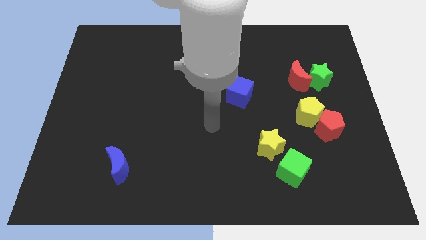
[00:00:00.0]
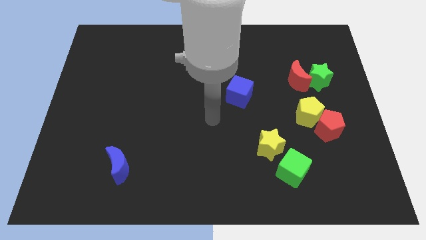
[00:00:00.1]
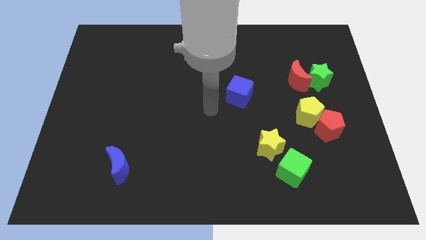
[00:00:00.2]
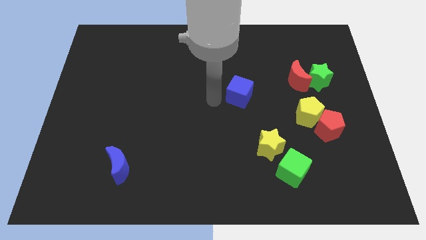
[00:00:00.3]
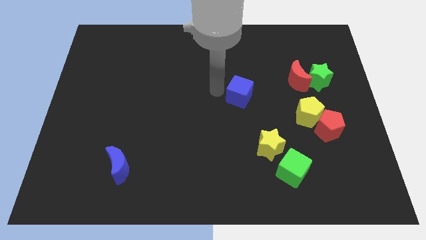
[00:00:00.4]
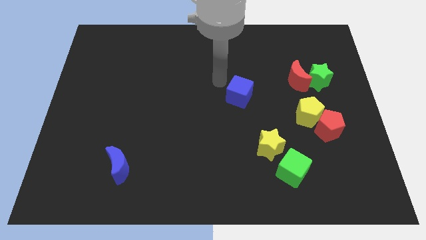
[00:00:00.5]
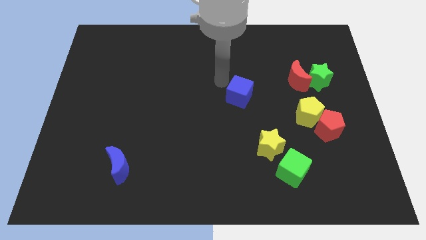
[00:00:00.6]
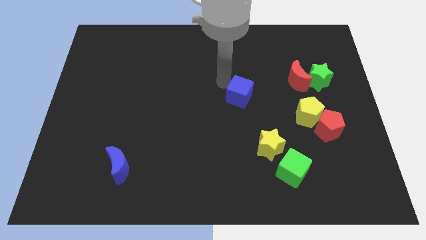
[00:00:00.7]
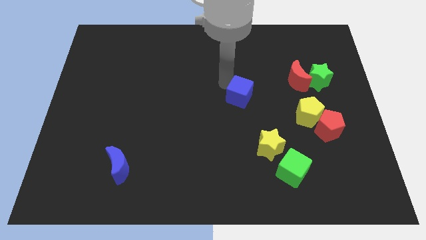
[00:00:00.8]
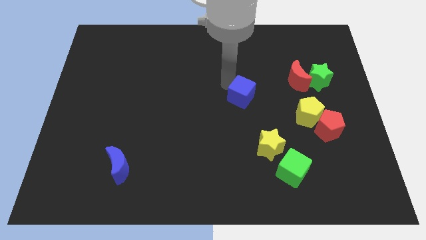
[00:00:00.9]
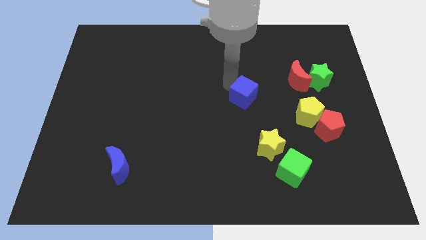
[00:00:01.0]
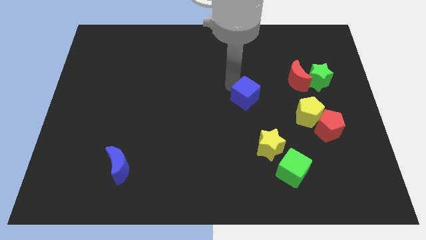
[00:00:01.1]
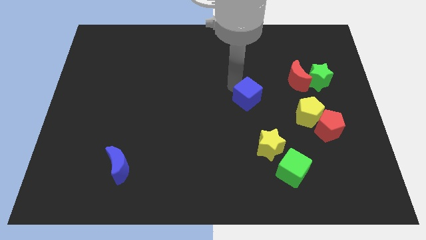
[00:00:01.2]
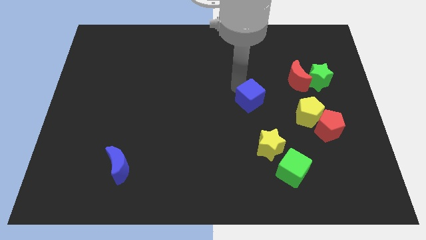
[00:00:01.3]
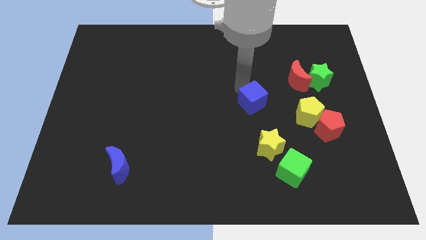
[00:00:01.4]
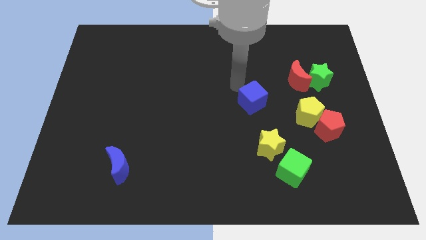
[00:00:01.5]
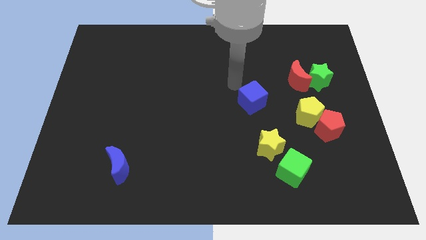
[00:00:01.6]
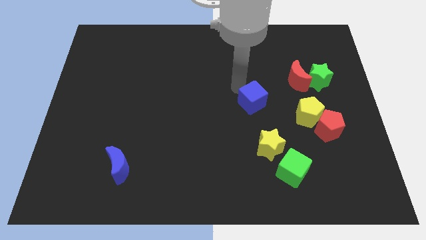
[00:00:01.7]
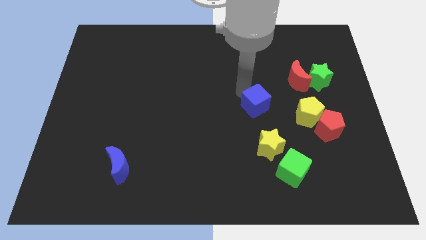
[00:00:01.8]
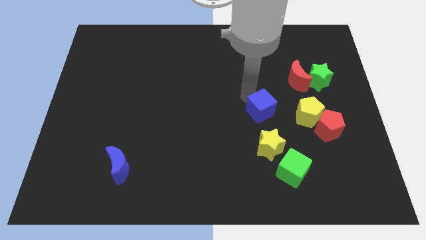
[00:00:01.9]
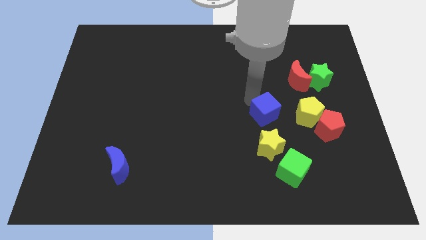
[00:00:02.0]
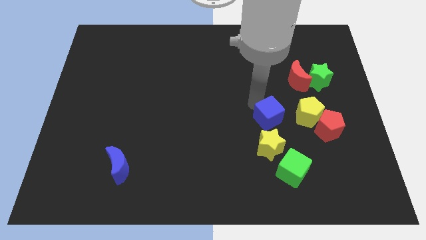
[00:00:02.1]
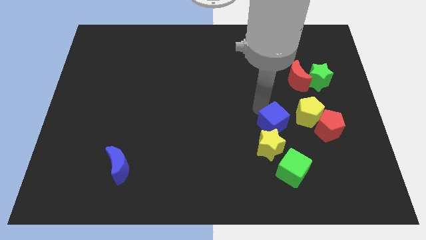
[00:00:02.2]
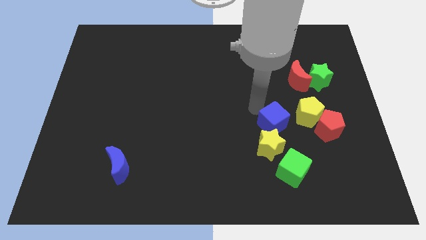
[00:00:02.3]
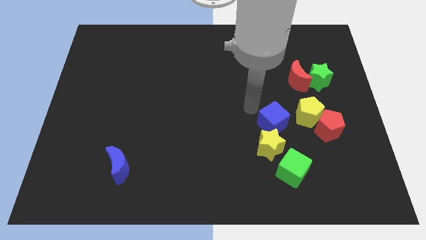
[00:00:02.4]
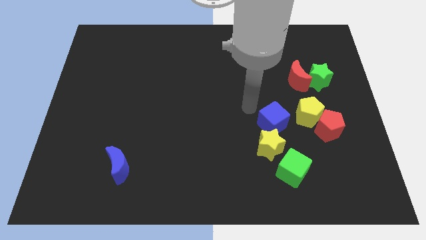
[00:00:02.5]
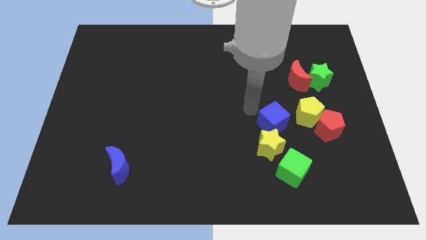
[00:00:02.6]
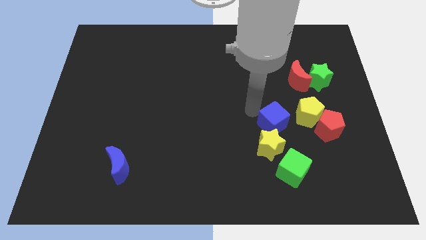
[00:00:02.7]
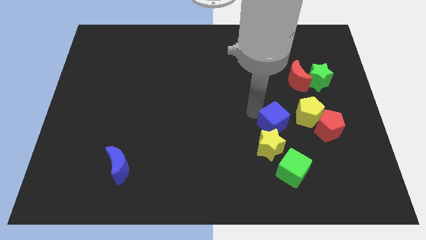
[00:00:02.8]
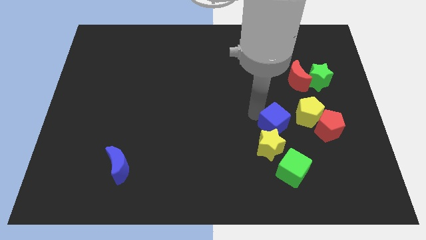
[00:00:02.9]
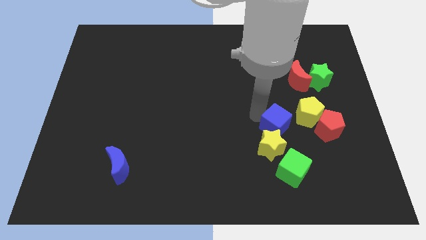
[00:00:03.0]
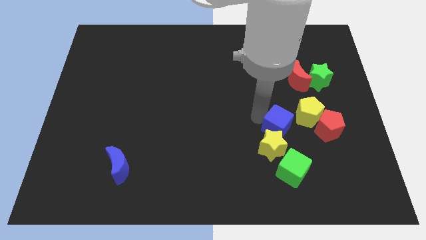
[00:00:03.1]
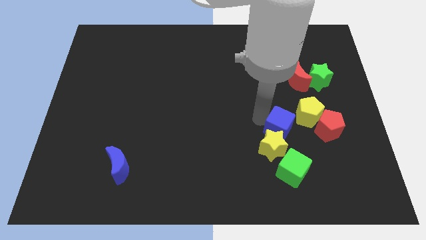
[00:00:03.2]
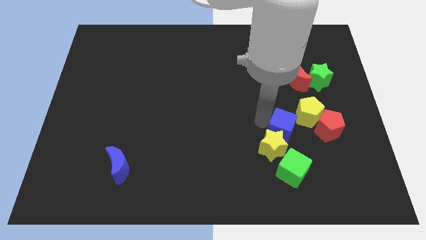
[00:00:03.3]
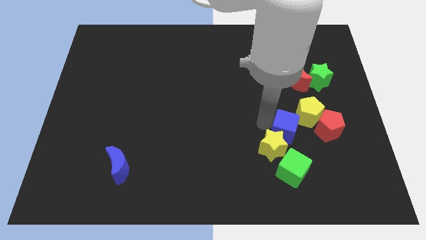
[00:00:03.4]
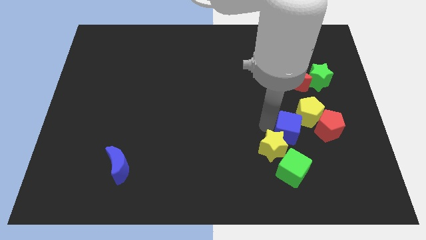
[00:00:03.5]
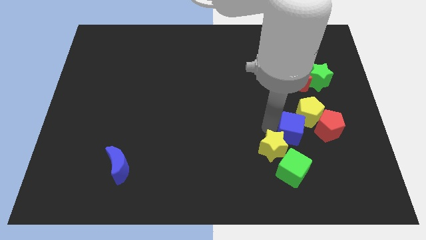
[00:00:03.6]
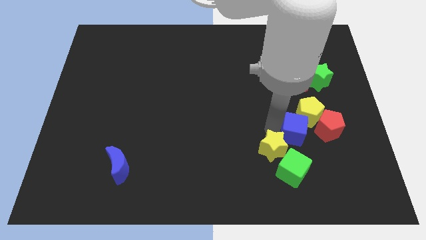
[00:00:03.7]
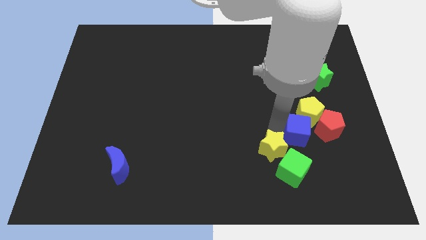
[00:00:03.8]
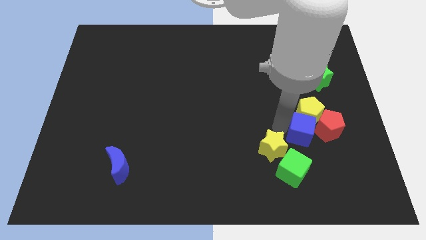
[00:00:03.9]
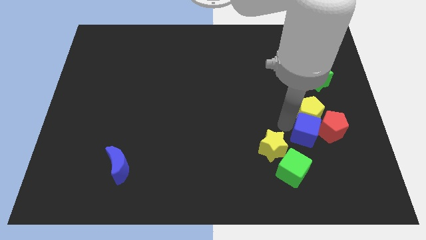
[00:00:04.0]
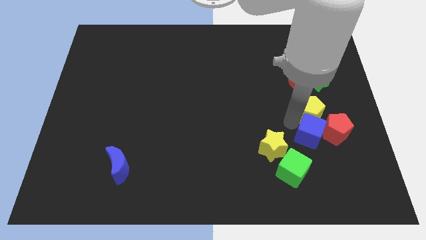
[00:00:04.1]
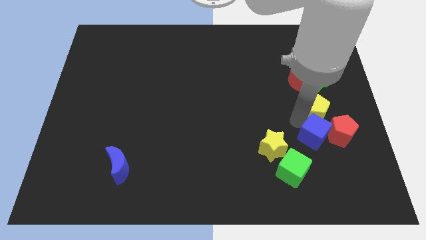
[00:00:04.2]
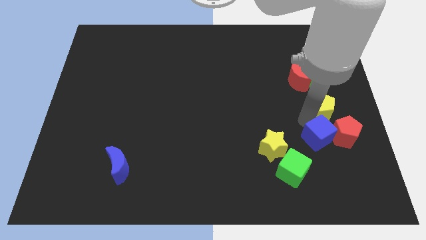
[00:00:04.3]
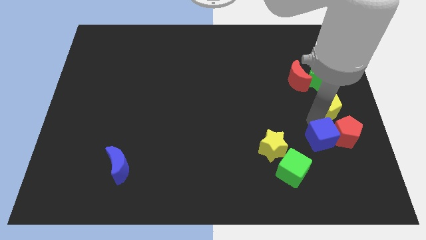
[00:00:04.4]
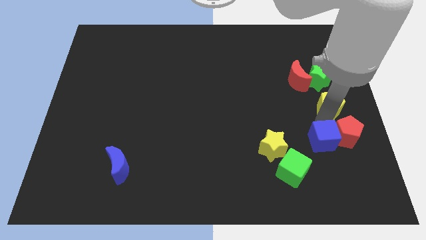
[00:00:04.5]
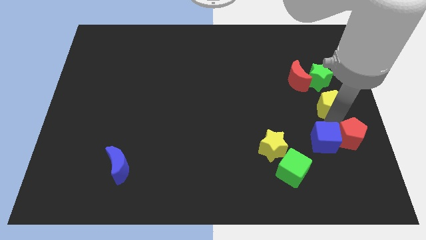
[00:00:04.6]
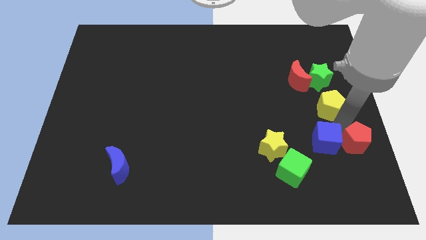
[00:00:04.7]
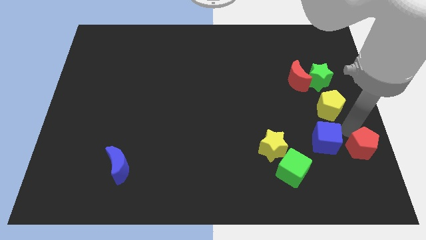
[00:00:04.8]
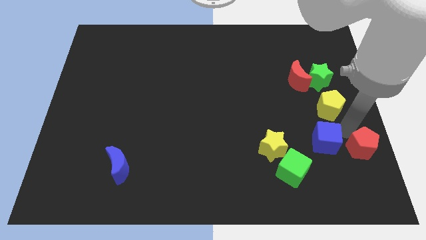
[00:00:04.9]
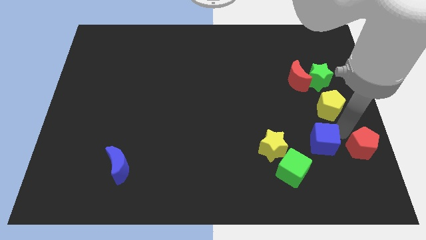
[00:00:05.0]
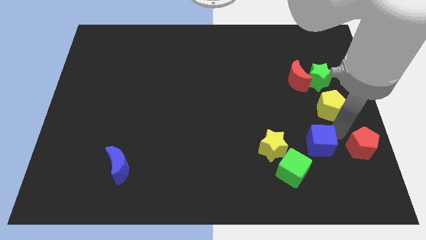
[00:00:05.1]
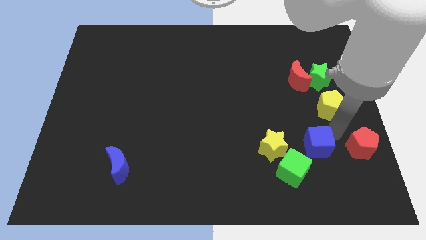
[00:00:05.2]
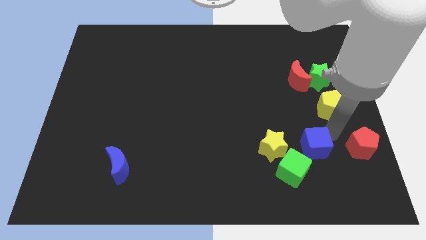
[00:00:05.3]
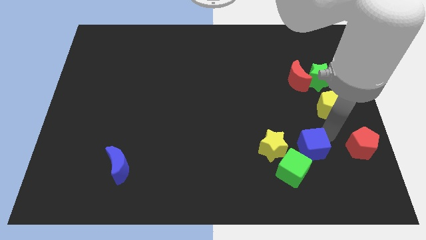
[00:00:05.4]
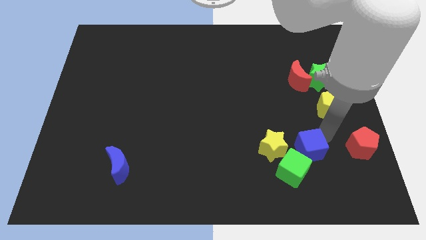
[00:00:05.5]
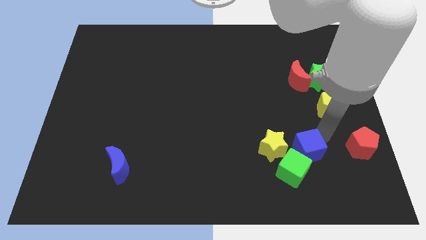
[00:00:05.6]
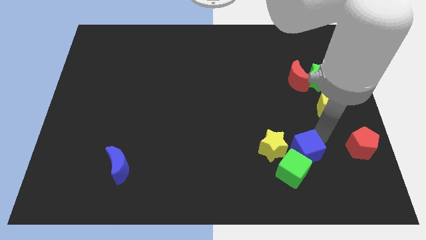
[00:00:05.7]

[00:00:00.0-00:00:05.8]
move the blue cube next to the green cube

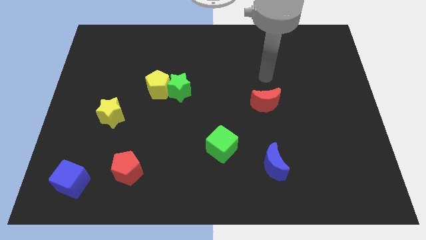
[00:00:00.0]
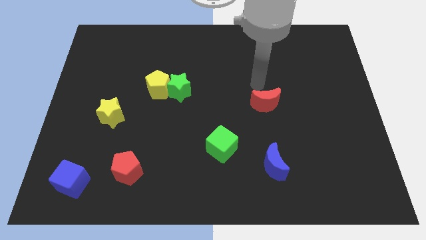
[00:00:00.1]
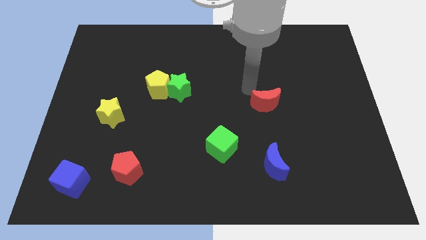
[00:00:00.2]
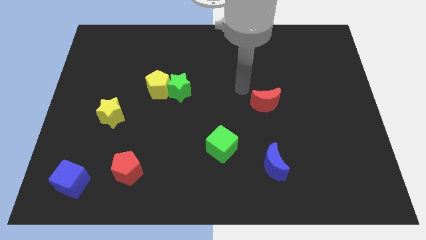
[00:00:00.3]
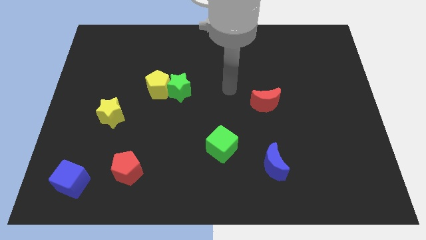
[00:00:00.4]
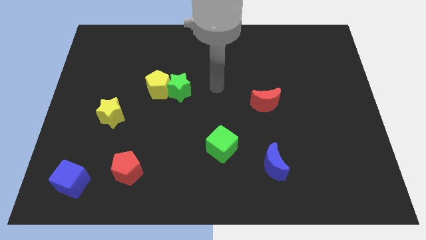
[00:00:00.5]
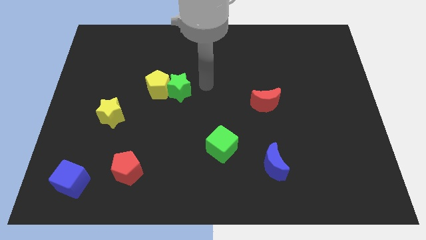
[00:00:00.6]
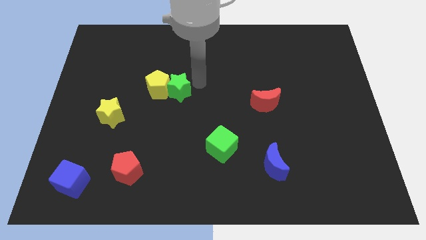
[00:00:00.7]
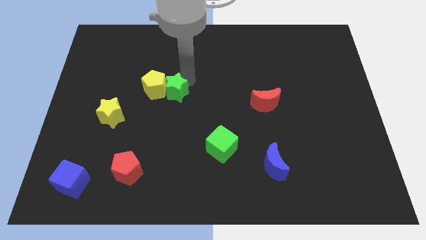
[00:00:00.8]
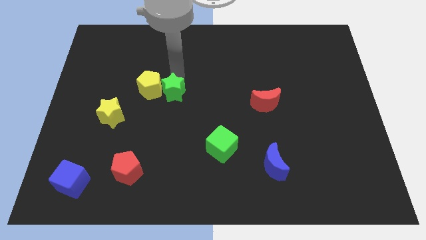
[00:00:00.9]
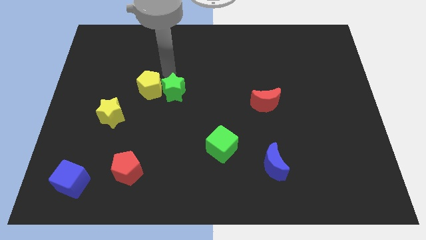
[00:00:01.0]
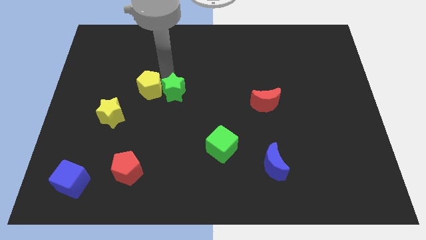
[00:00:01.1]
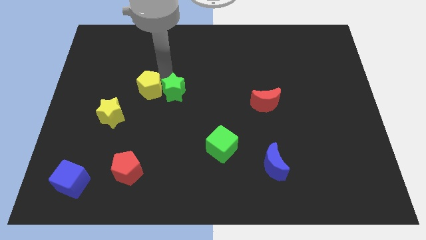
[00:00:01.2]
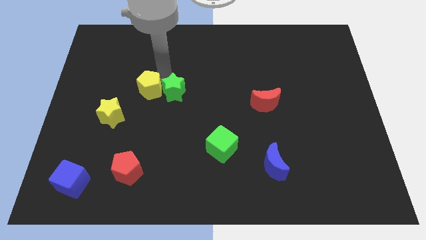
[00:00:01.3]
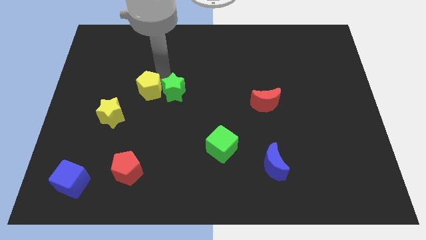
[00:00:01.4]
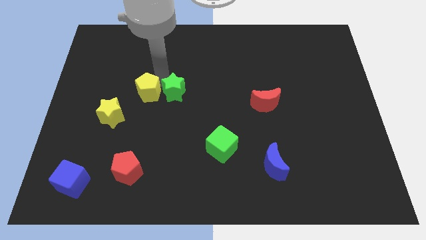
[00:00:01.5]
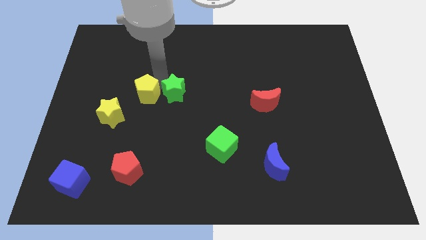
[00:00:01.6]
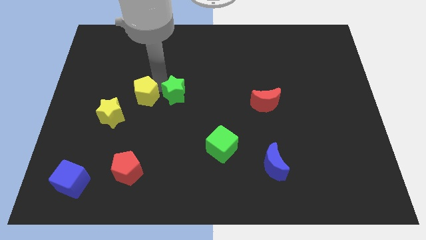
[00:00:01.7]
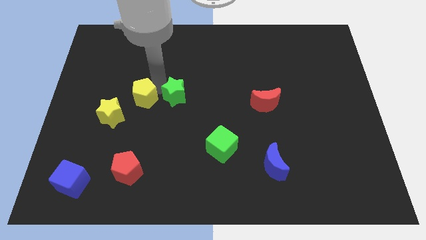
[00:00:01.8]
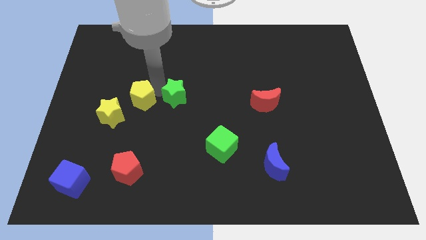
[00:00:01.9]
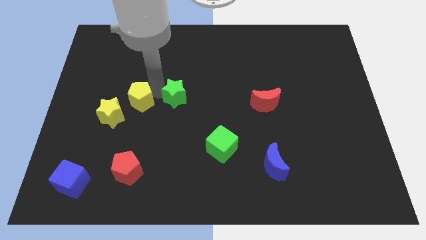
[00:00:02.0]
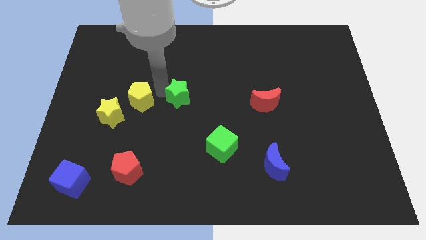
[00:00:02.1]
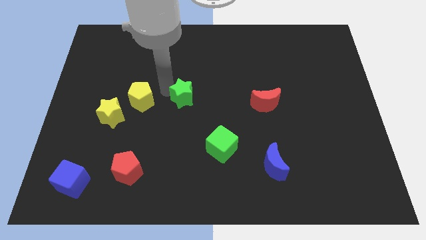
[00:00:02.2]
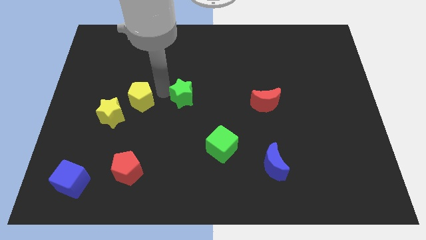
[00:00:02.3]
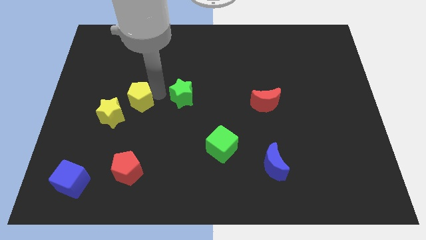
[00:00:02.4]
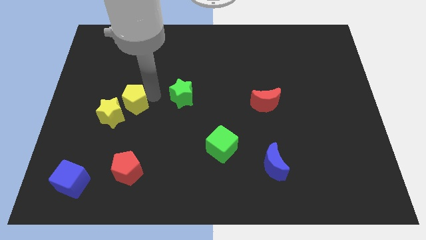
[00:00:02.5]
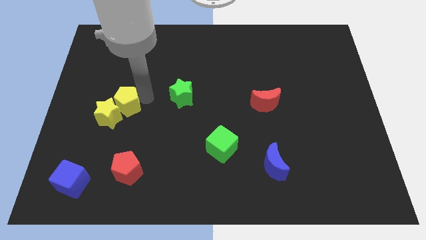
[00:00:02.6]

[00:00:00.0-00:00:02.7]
slide the yellow pentagon next to the yellow star
